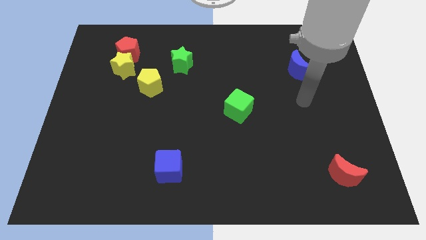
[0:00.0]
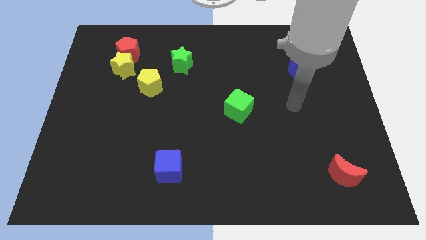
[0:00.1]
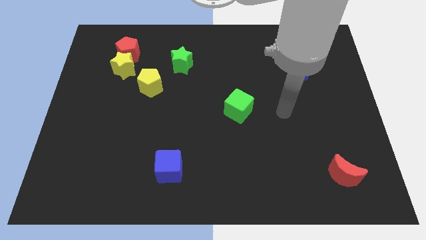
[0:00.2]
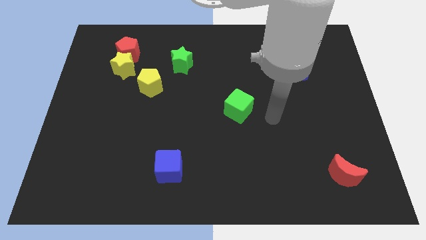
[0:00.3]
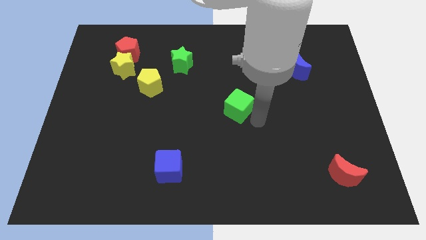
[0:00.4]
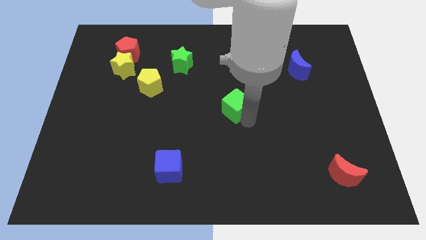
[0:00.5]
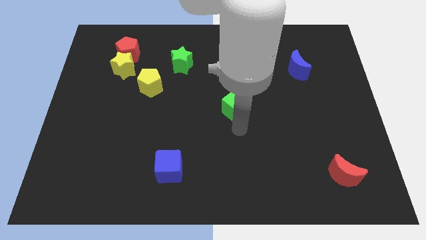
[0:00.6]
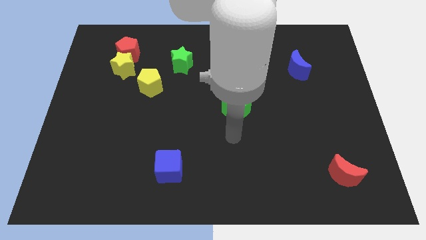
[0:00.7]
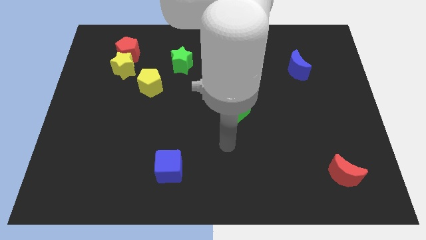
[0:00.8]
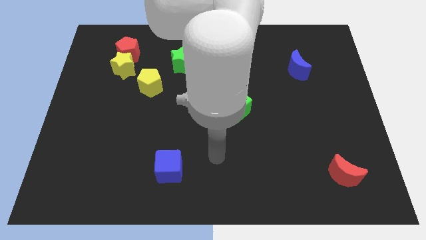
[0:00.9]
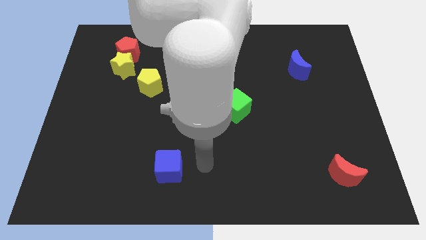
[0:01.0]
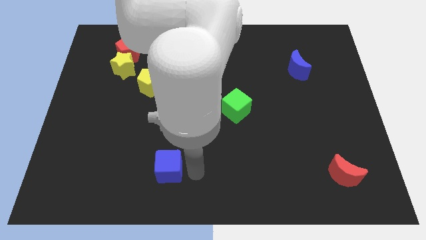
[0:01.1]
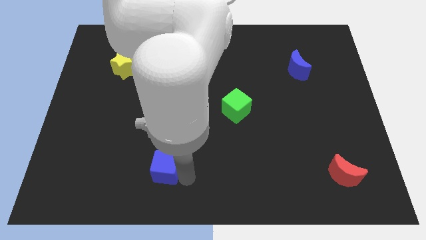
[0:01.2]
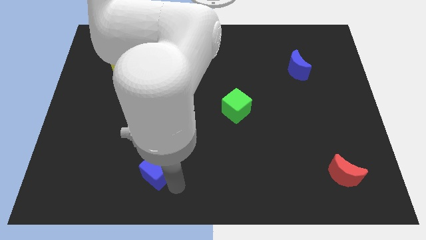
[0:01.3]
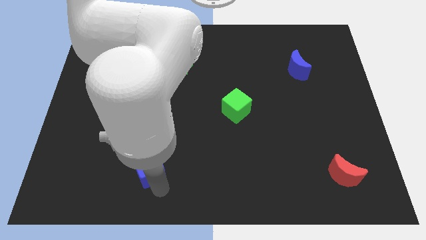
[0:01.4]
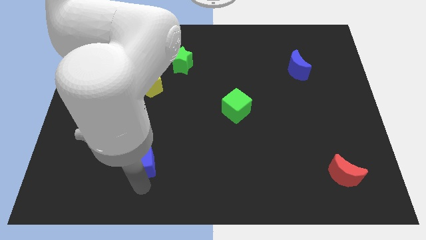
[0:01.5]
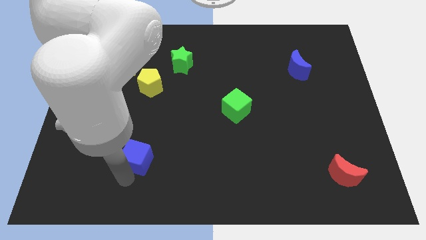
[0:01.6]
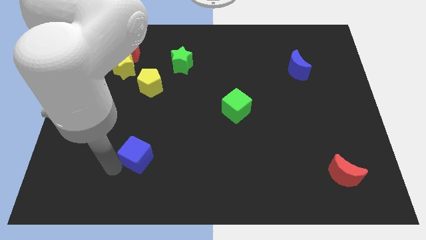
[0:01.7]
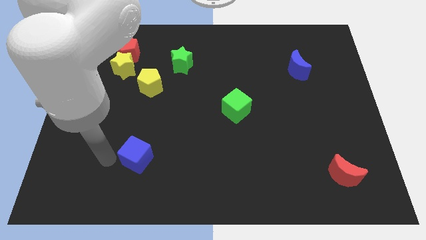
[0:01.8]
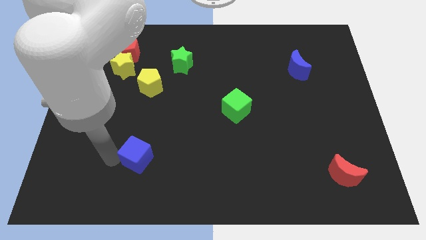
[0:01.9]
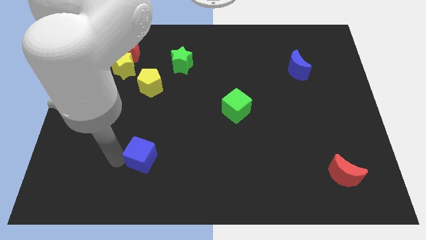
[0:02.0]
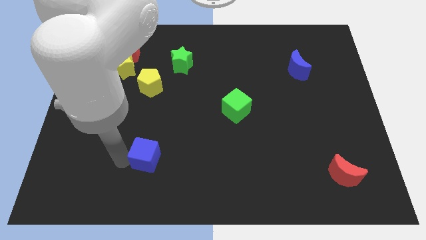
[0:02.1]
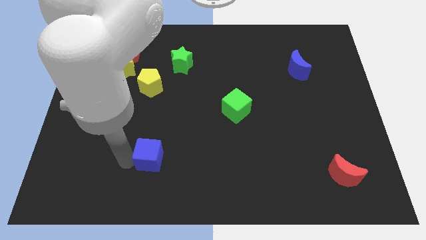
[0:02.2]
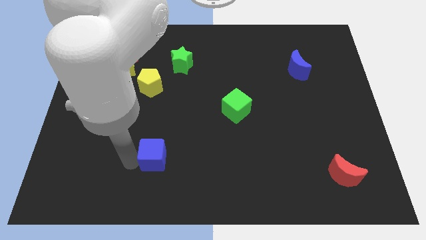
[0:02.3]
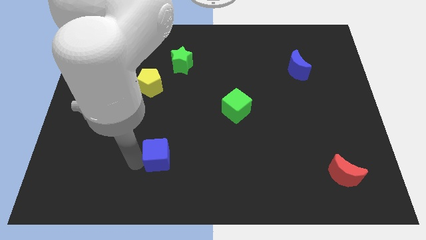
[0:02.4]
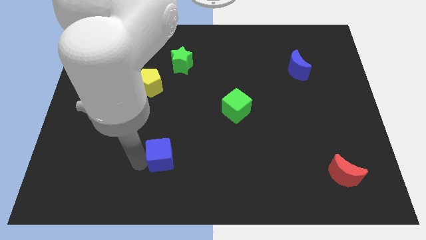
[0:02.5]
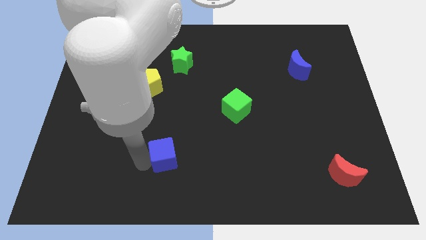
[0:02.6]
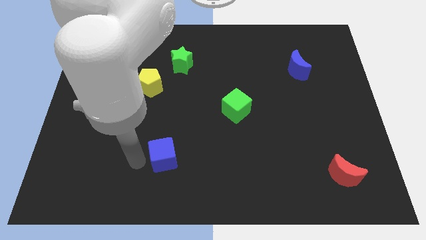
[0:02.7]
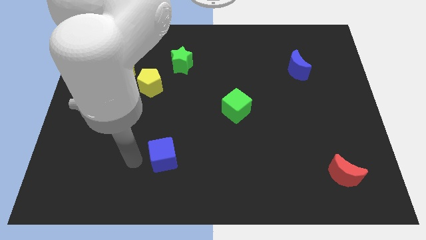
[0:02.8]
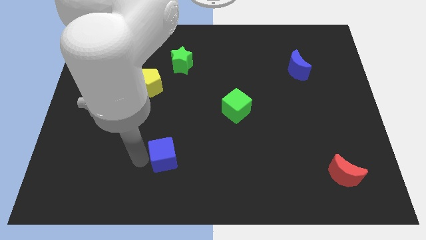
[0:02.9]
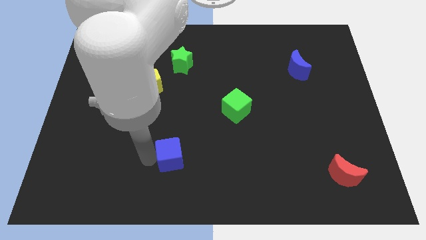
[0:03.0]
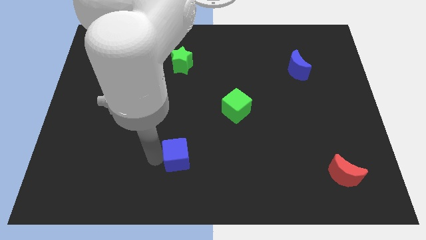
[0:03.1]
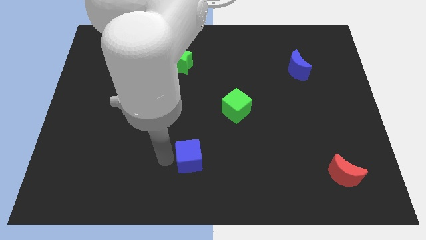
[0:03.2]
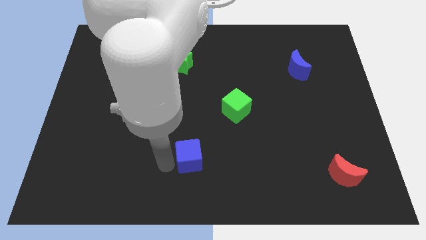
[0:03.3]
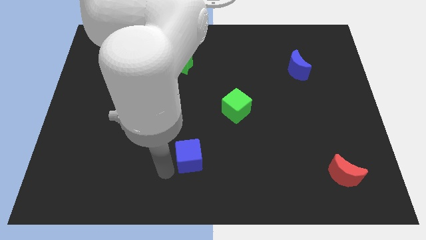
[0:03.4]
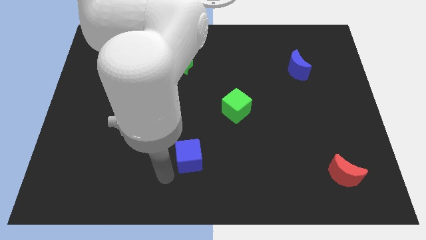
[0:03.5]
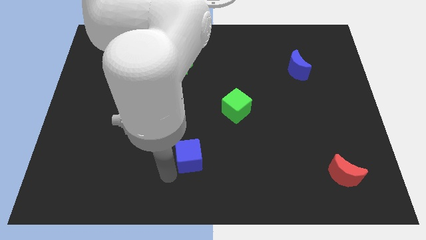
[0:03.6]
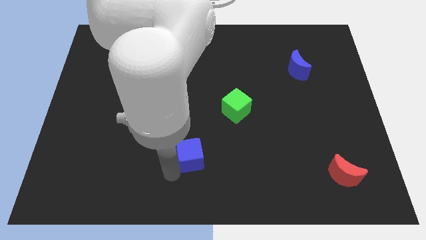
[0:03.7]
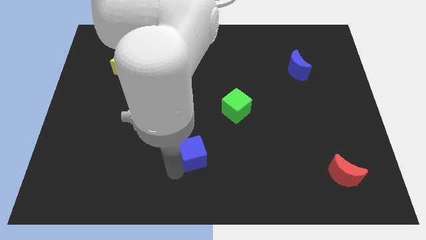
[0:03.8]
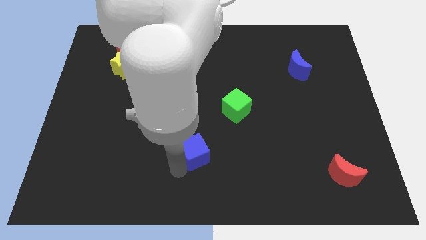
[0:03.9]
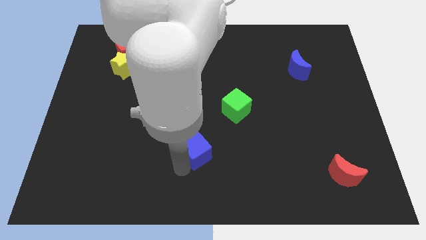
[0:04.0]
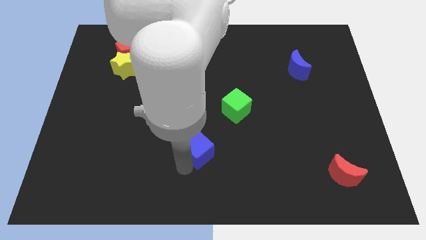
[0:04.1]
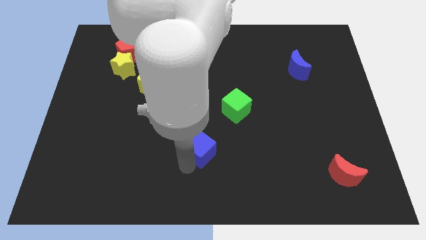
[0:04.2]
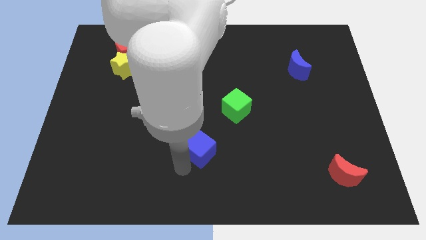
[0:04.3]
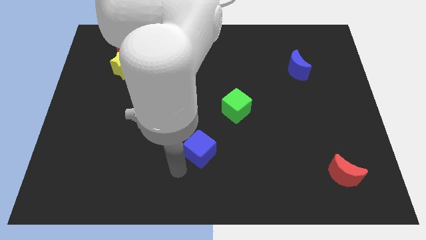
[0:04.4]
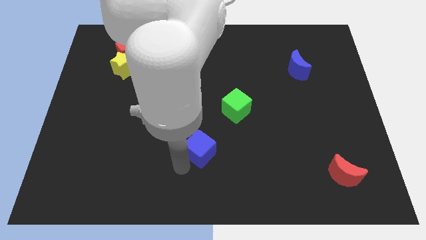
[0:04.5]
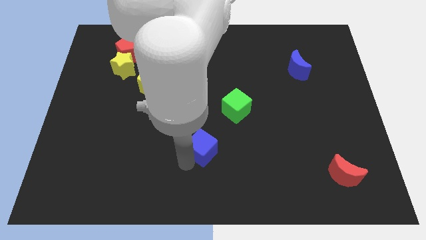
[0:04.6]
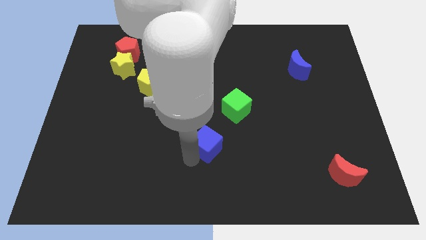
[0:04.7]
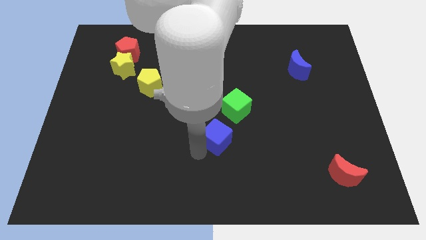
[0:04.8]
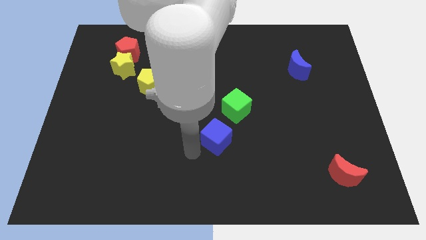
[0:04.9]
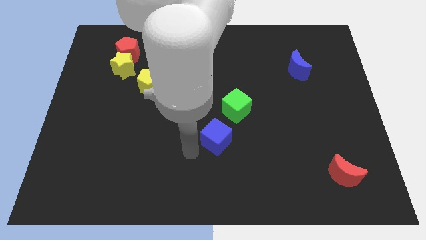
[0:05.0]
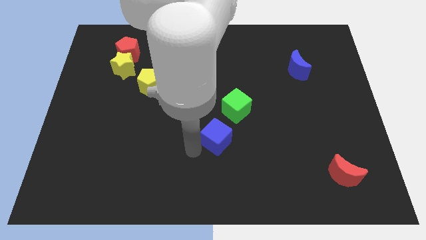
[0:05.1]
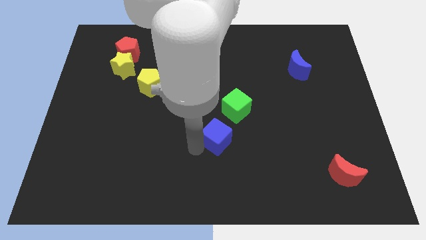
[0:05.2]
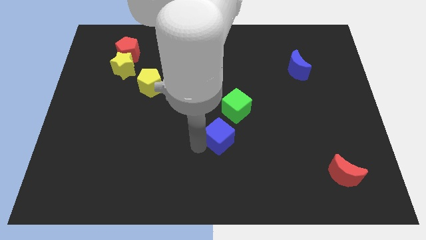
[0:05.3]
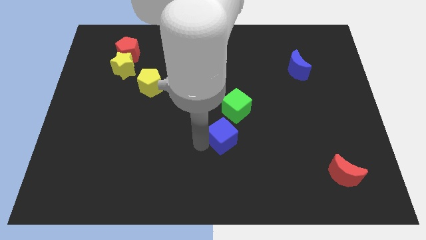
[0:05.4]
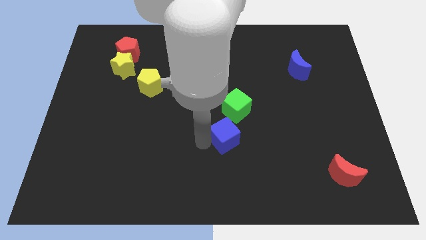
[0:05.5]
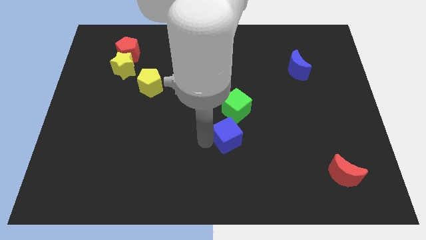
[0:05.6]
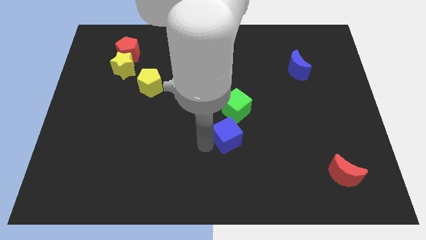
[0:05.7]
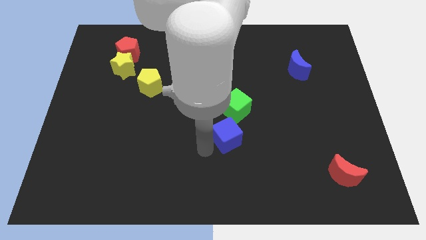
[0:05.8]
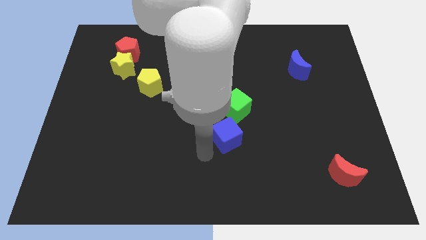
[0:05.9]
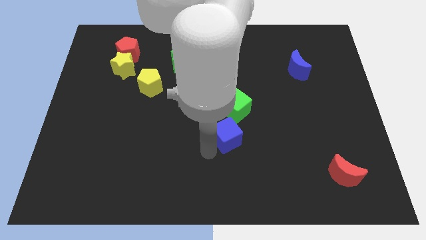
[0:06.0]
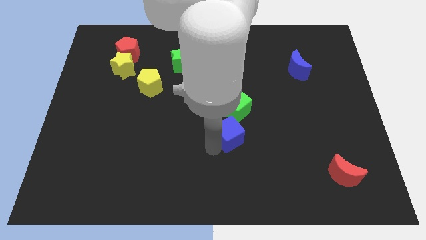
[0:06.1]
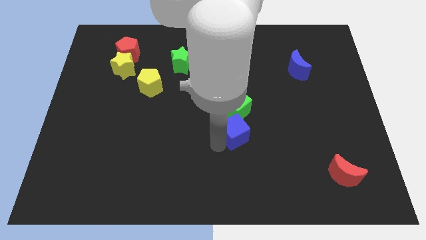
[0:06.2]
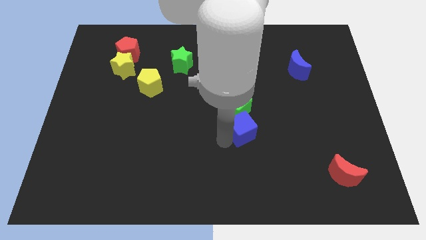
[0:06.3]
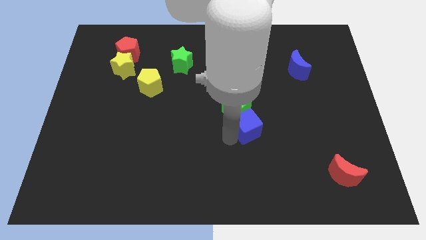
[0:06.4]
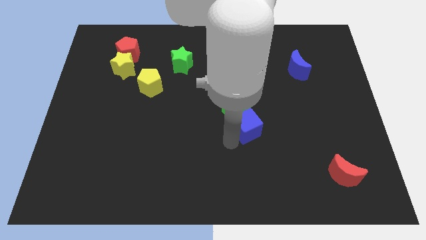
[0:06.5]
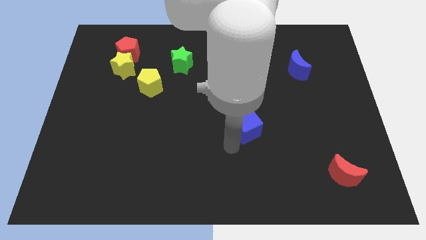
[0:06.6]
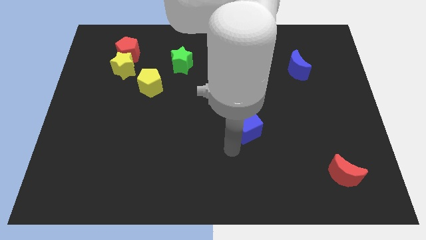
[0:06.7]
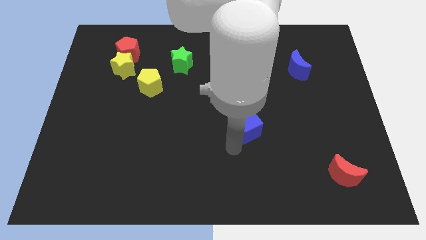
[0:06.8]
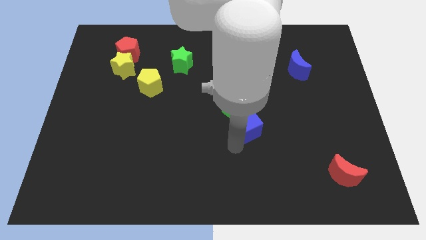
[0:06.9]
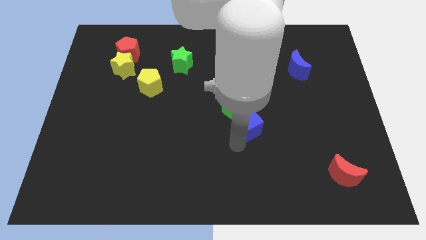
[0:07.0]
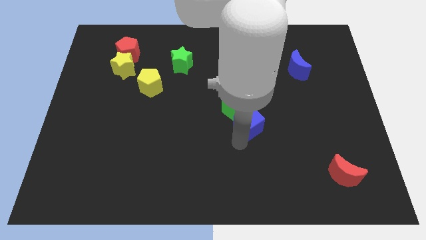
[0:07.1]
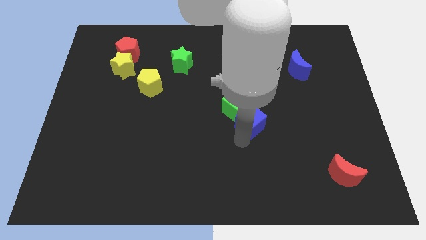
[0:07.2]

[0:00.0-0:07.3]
push the blue cube up and then to the right

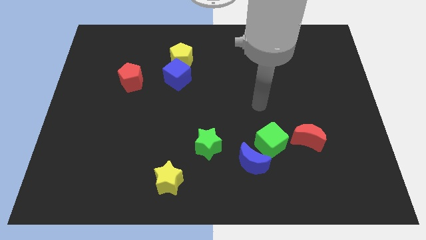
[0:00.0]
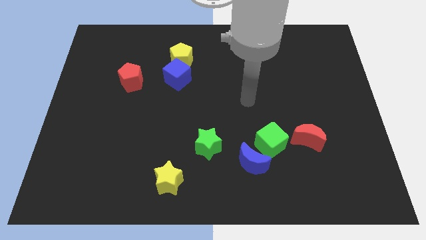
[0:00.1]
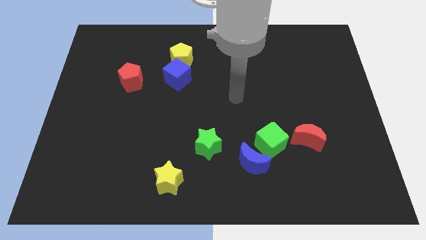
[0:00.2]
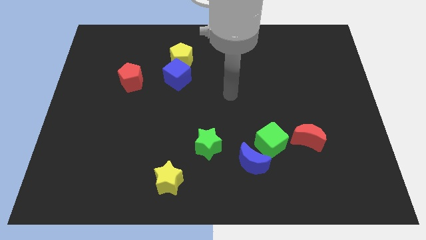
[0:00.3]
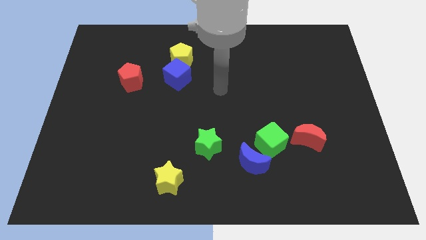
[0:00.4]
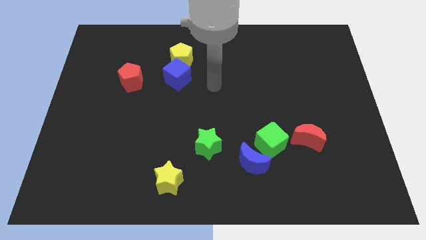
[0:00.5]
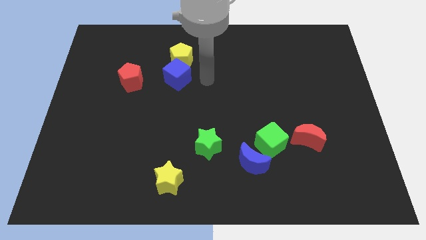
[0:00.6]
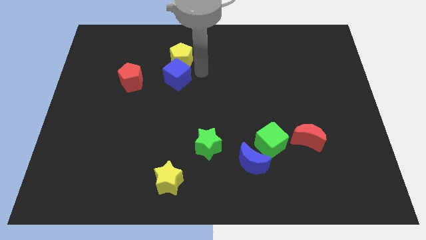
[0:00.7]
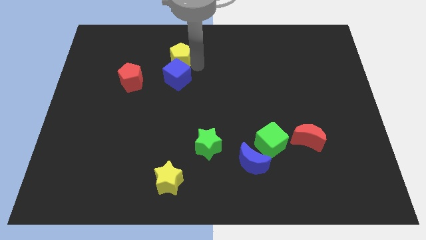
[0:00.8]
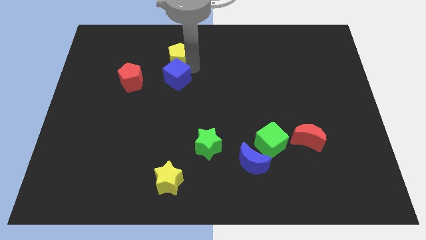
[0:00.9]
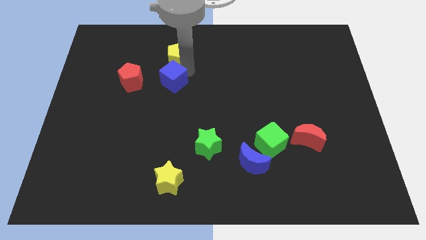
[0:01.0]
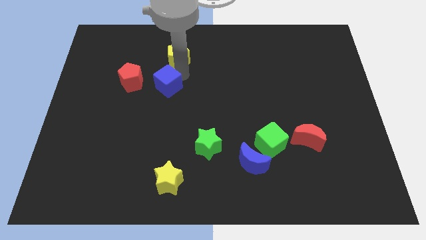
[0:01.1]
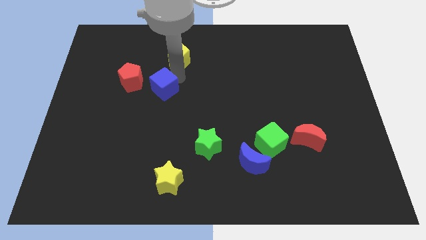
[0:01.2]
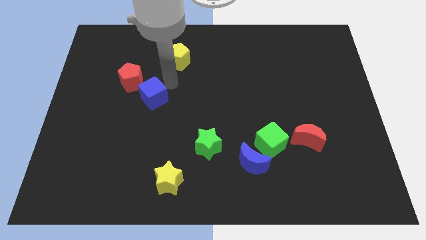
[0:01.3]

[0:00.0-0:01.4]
move the blue cube a little down and then to the left
